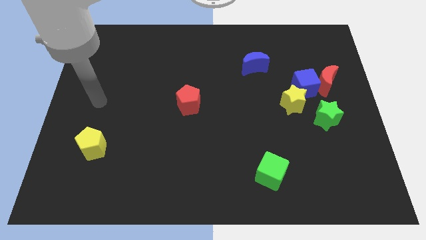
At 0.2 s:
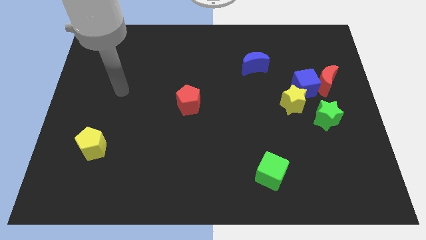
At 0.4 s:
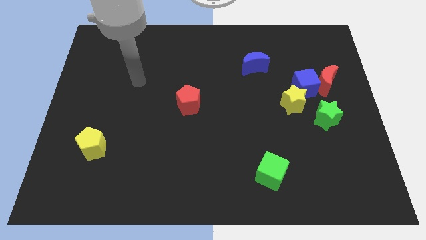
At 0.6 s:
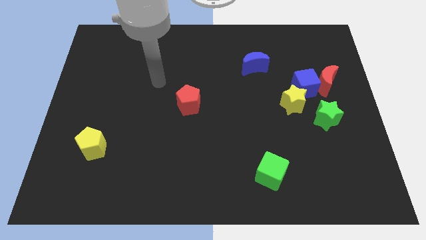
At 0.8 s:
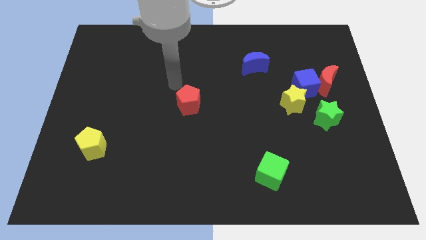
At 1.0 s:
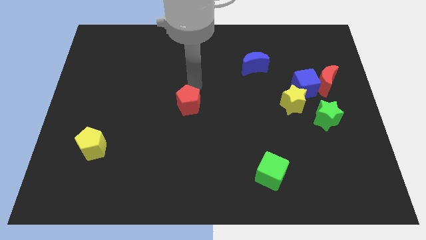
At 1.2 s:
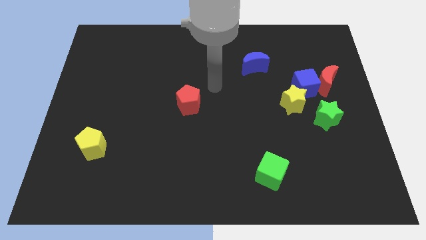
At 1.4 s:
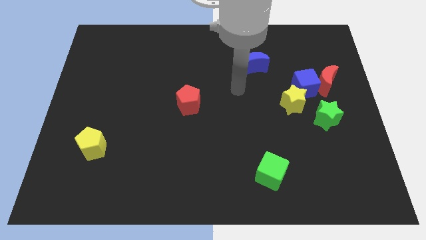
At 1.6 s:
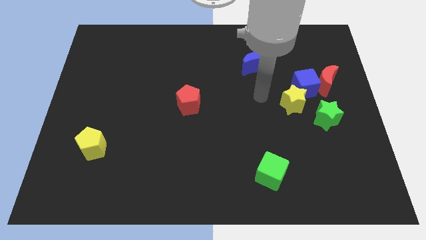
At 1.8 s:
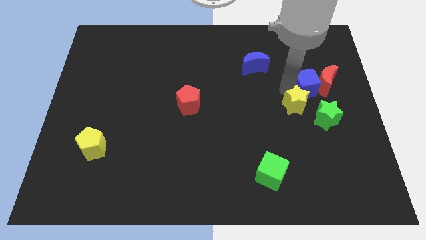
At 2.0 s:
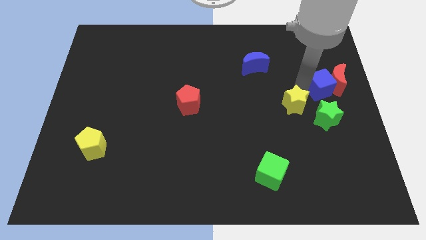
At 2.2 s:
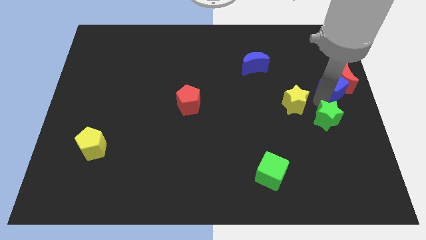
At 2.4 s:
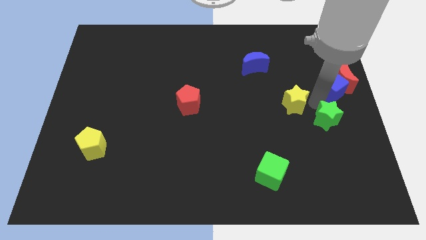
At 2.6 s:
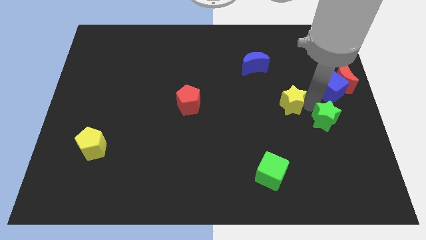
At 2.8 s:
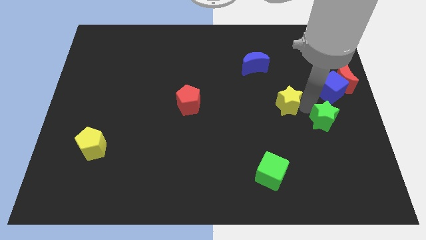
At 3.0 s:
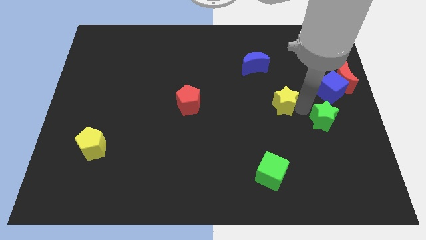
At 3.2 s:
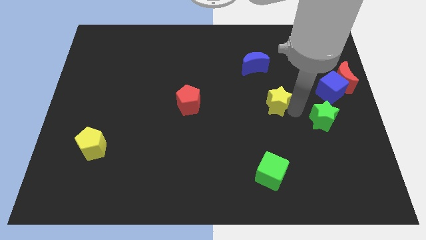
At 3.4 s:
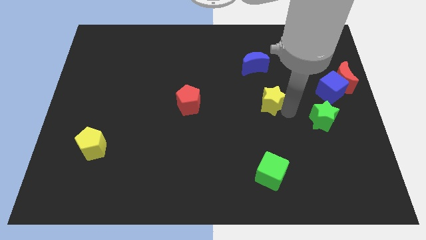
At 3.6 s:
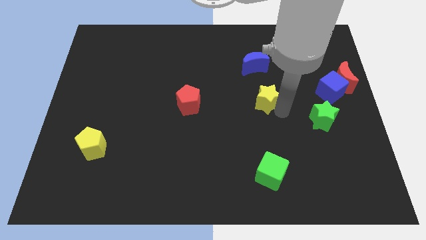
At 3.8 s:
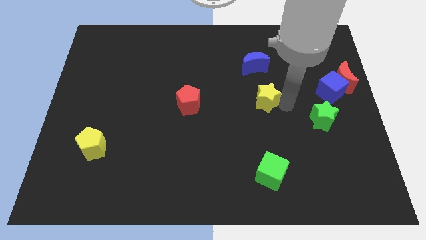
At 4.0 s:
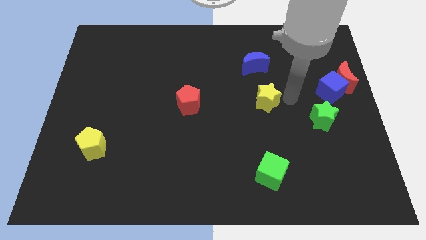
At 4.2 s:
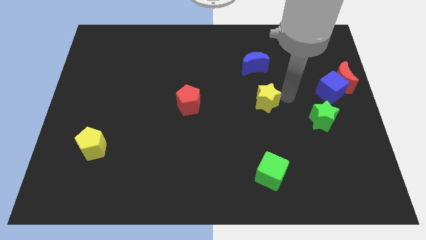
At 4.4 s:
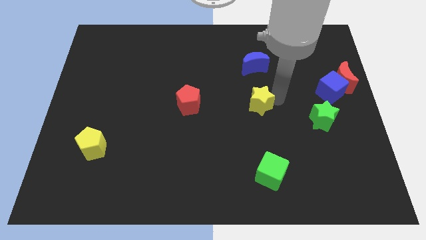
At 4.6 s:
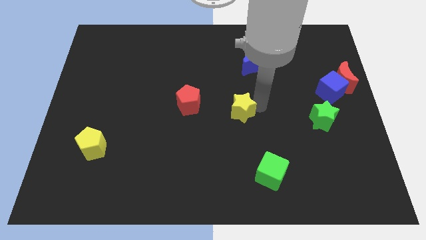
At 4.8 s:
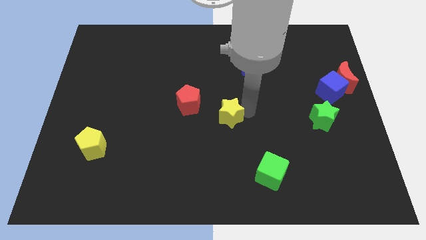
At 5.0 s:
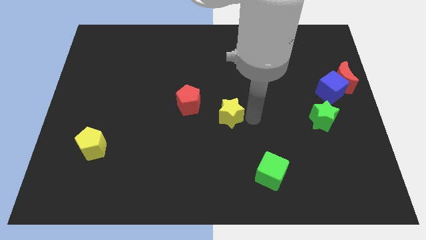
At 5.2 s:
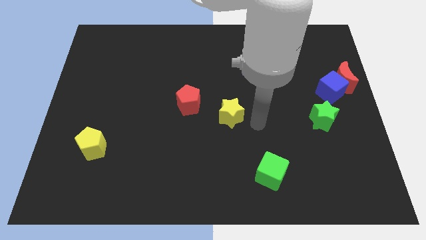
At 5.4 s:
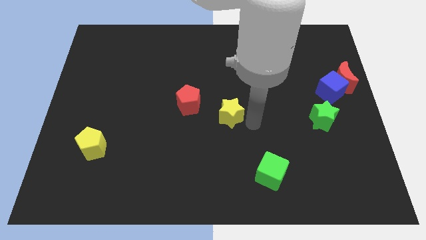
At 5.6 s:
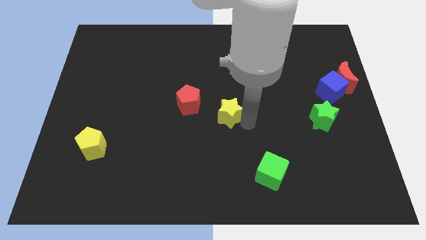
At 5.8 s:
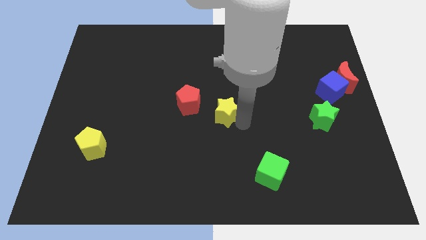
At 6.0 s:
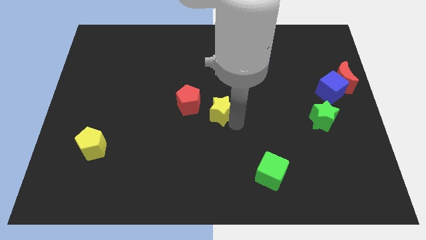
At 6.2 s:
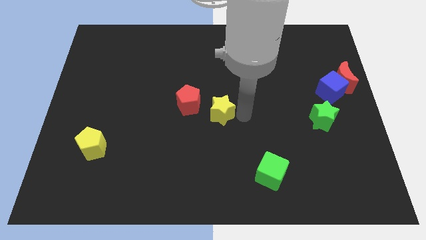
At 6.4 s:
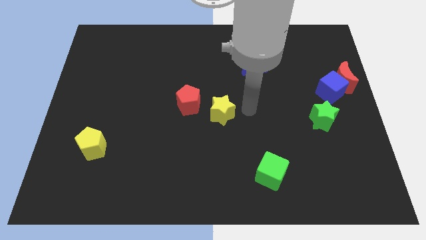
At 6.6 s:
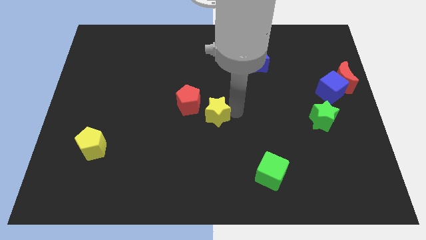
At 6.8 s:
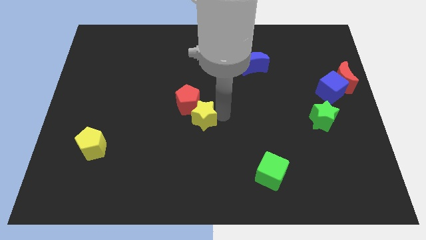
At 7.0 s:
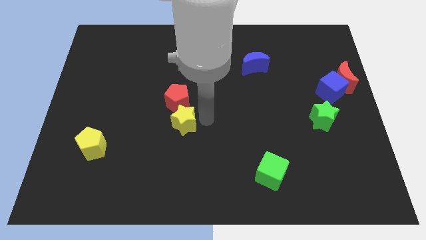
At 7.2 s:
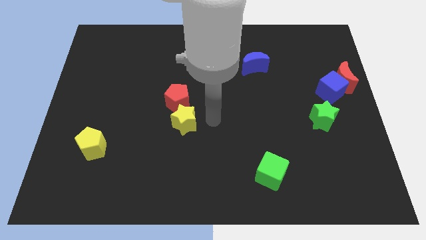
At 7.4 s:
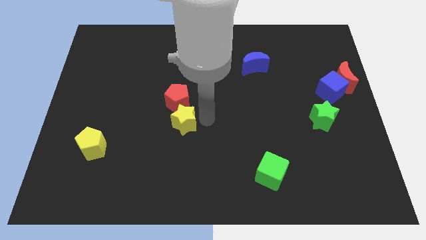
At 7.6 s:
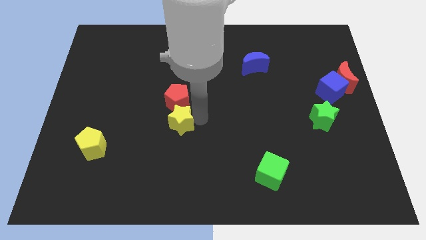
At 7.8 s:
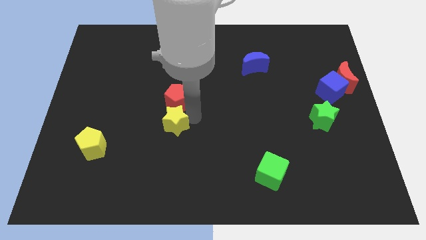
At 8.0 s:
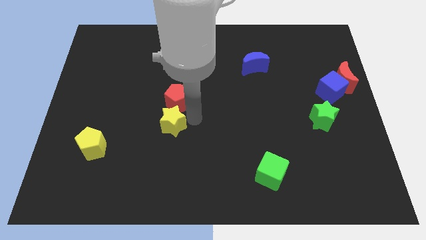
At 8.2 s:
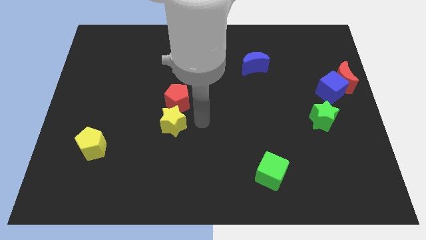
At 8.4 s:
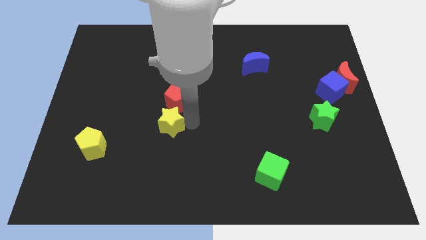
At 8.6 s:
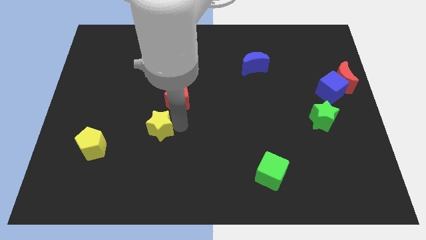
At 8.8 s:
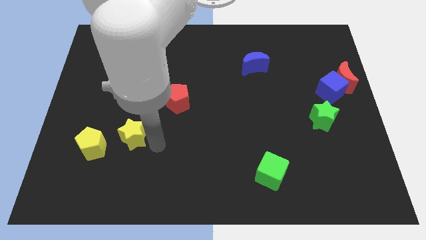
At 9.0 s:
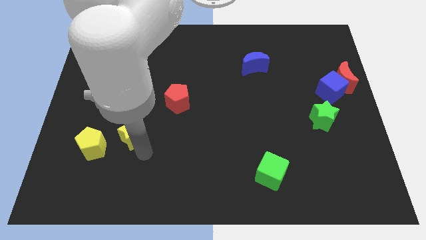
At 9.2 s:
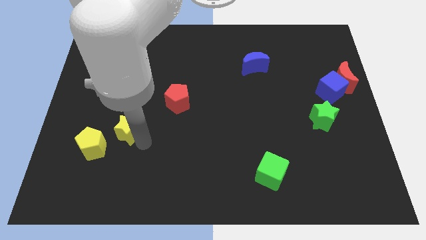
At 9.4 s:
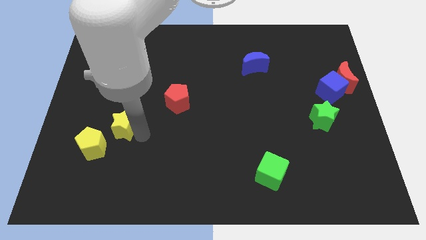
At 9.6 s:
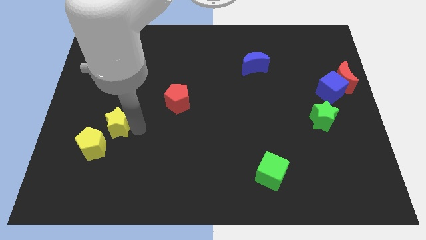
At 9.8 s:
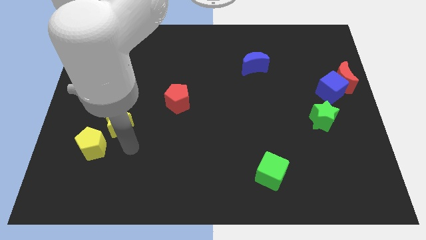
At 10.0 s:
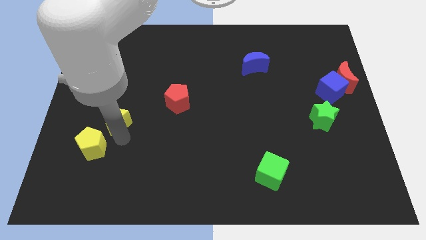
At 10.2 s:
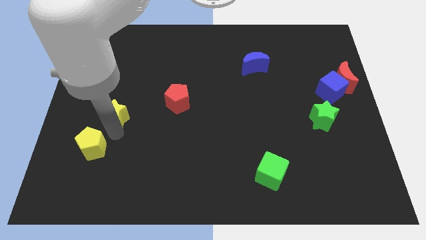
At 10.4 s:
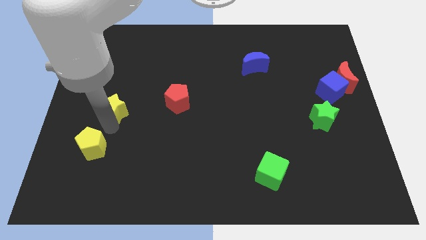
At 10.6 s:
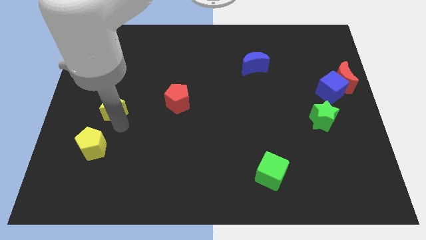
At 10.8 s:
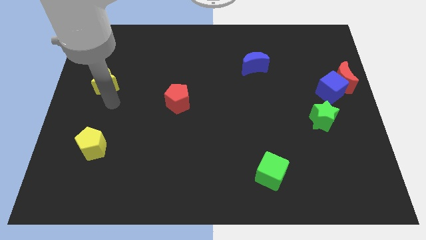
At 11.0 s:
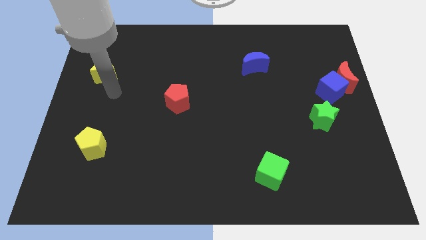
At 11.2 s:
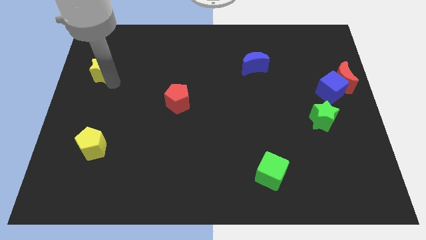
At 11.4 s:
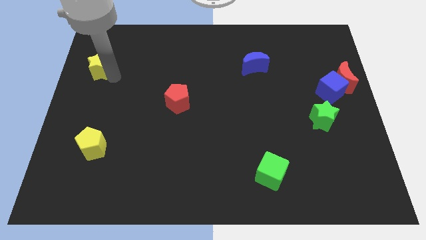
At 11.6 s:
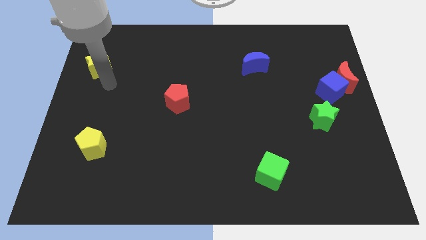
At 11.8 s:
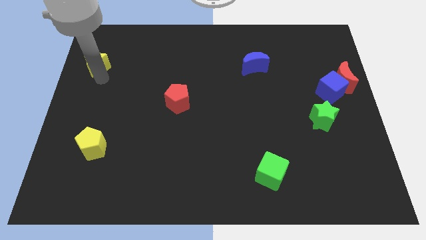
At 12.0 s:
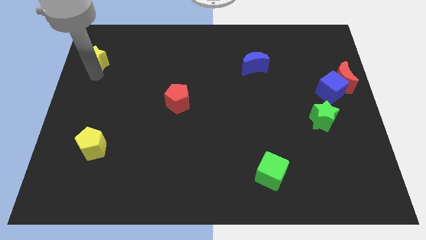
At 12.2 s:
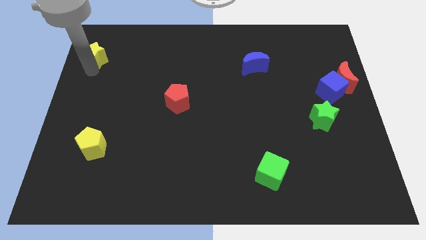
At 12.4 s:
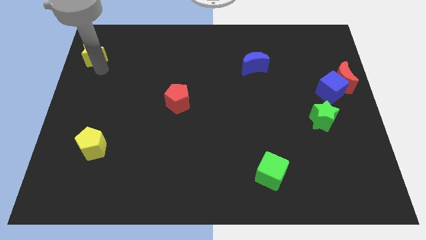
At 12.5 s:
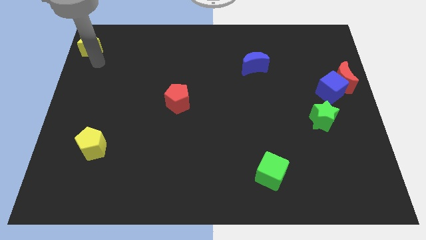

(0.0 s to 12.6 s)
move the yellow star to the top left of the board

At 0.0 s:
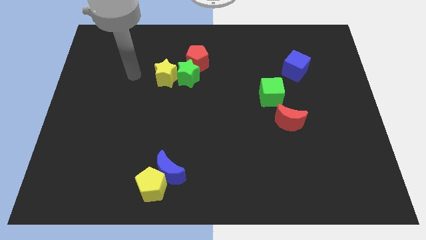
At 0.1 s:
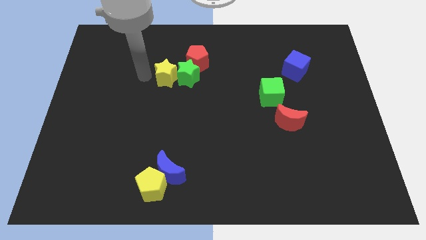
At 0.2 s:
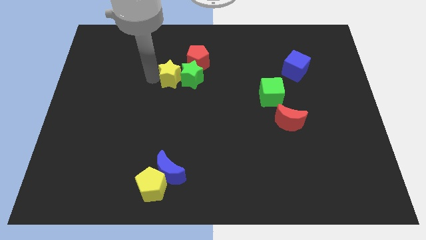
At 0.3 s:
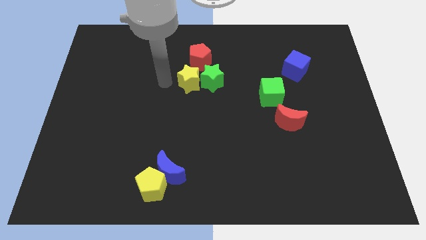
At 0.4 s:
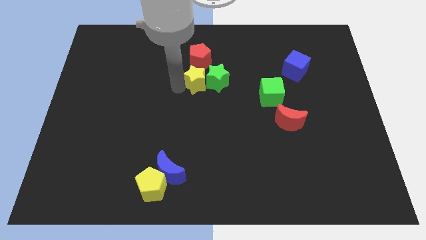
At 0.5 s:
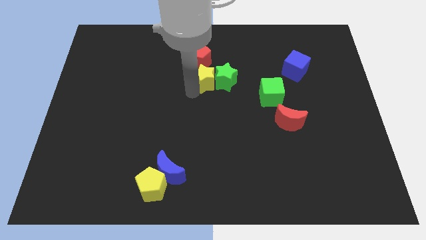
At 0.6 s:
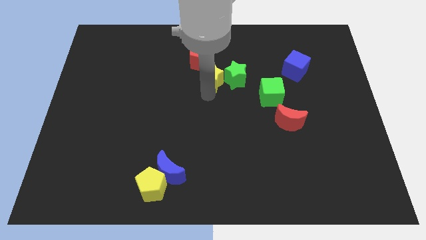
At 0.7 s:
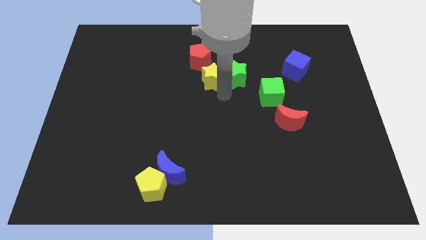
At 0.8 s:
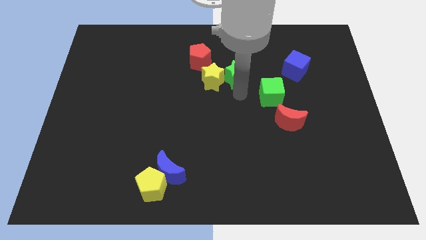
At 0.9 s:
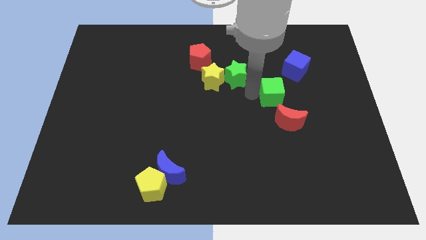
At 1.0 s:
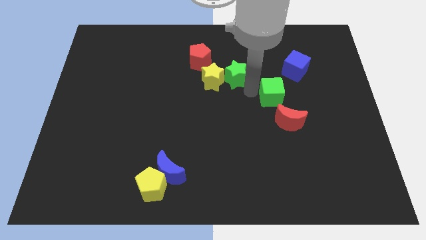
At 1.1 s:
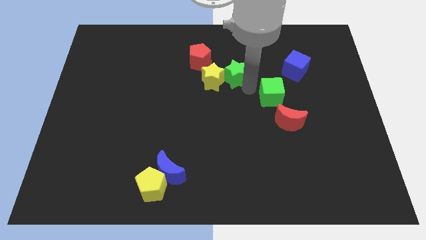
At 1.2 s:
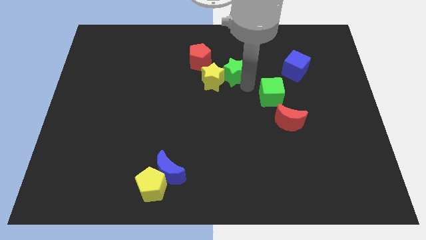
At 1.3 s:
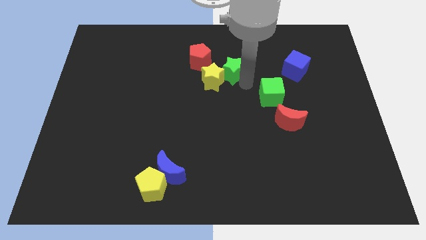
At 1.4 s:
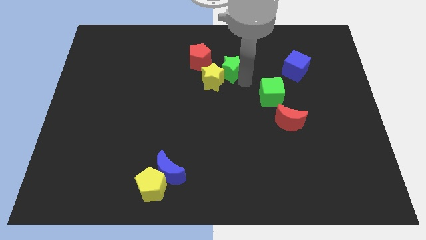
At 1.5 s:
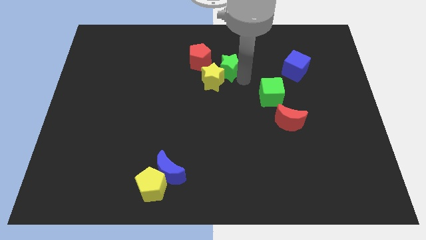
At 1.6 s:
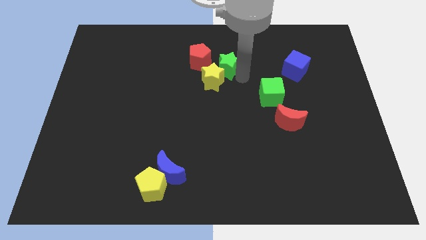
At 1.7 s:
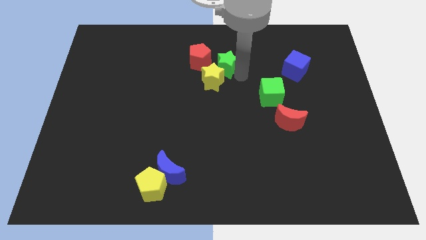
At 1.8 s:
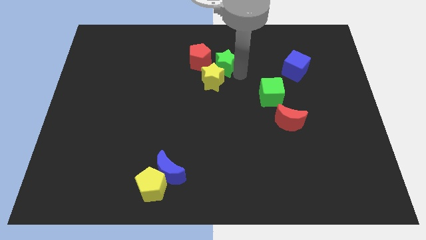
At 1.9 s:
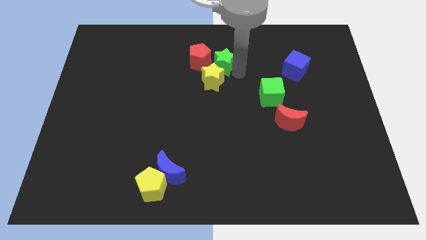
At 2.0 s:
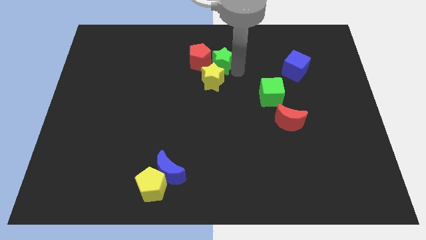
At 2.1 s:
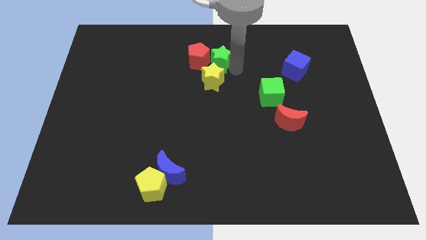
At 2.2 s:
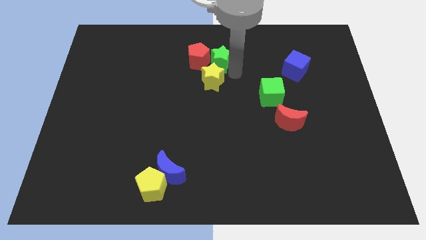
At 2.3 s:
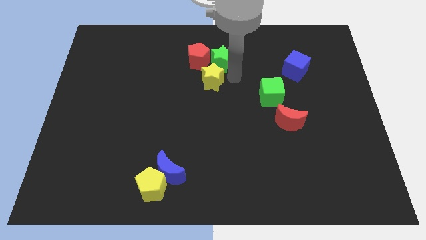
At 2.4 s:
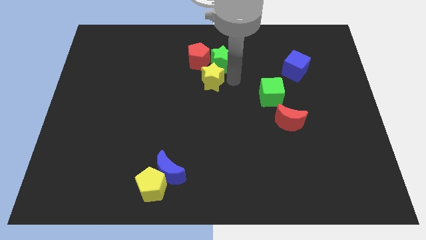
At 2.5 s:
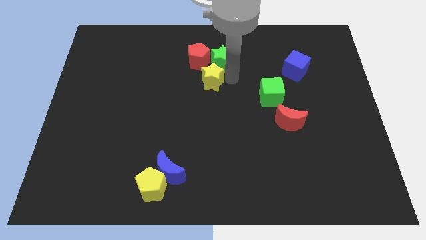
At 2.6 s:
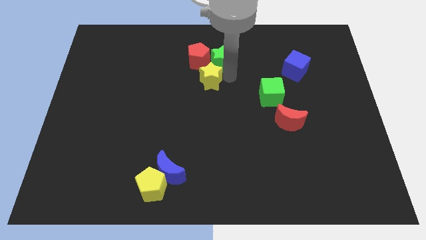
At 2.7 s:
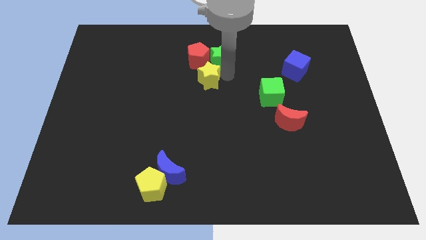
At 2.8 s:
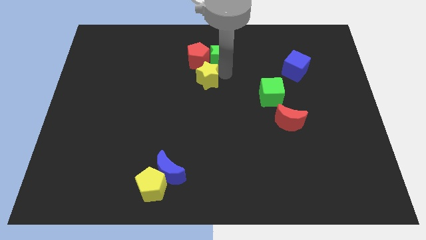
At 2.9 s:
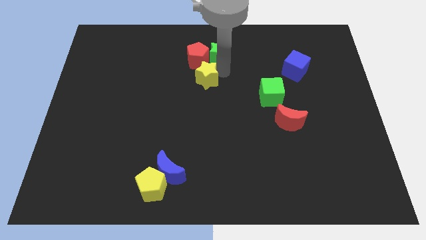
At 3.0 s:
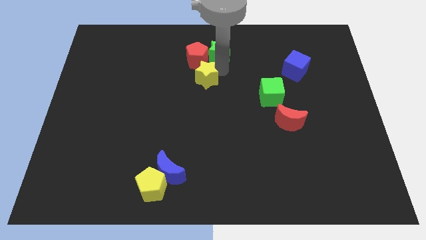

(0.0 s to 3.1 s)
slide the green star to the top
